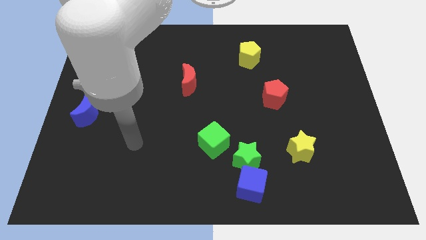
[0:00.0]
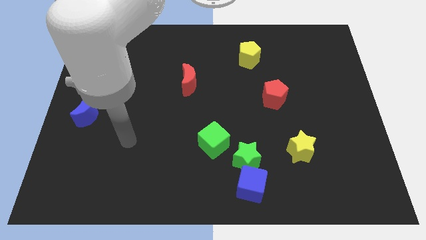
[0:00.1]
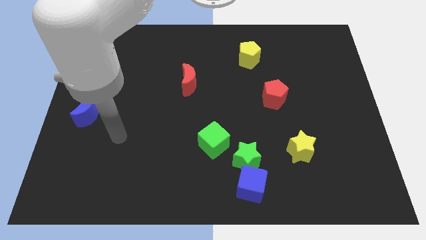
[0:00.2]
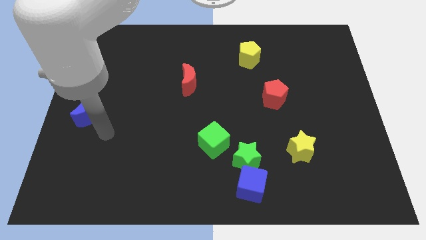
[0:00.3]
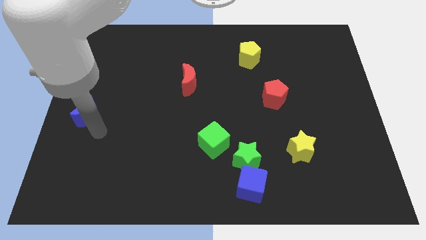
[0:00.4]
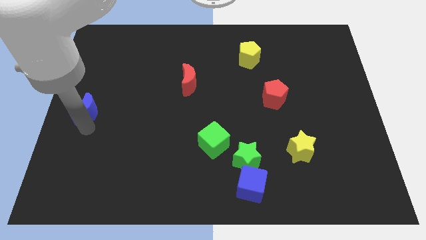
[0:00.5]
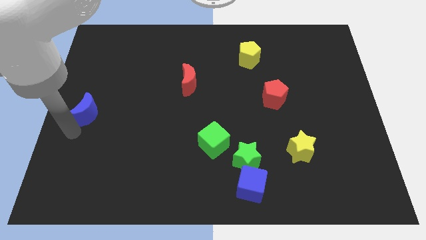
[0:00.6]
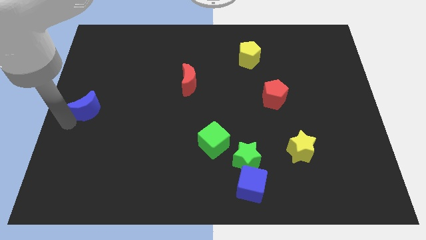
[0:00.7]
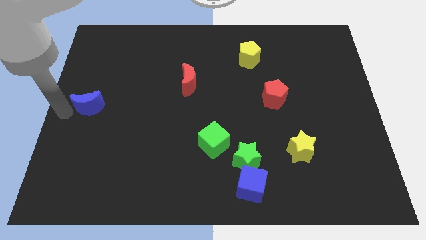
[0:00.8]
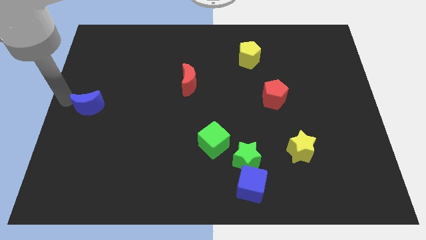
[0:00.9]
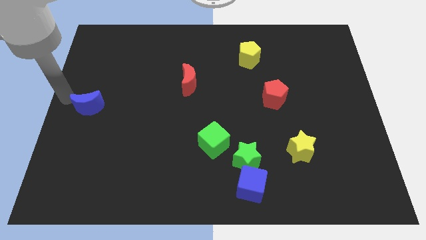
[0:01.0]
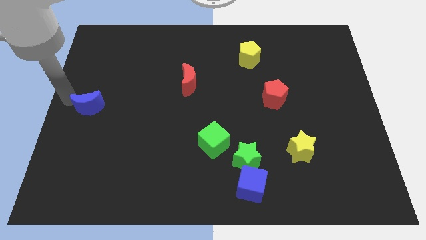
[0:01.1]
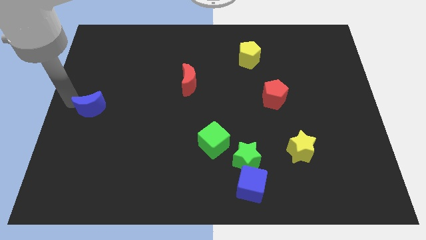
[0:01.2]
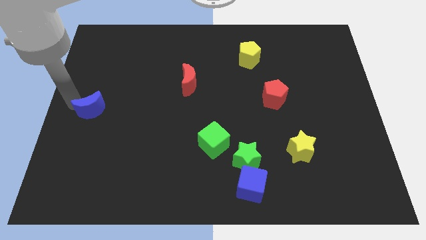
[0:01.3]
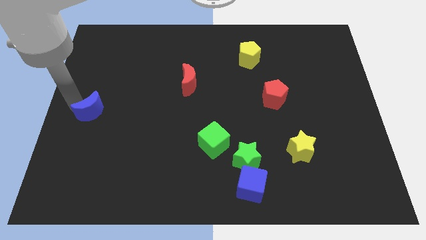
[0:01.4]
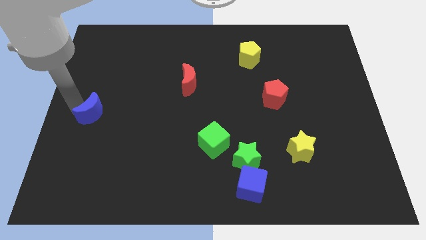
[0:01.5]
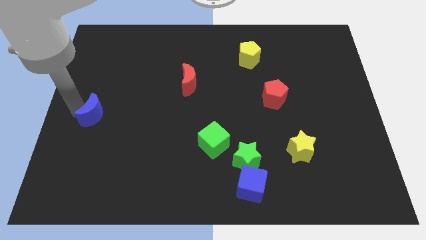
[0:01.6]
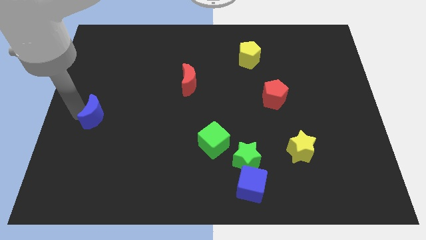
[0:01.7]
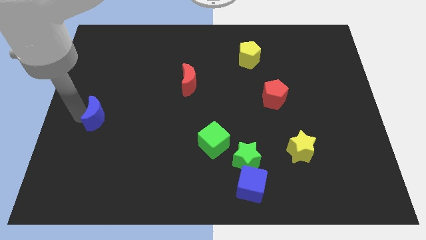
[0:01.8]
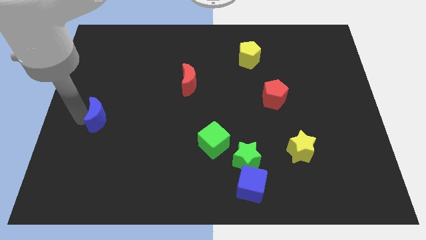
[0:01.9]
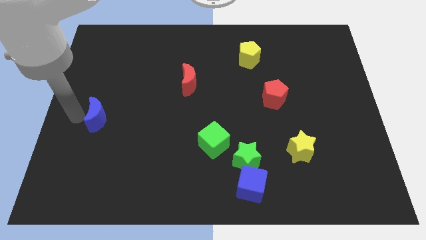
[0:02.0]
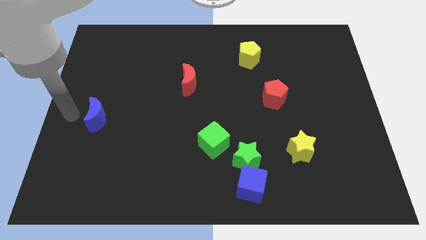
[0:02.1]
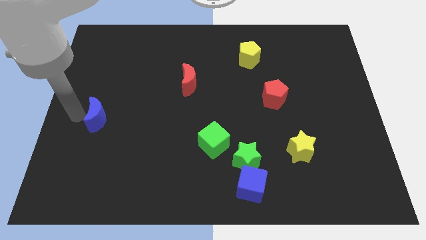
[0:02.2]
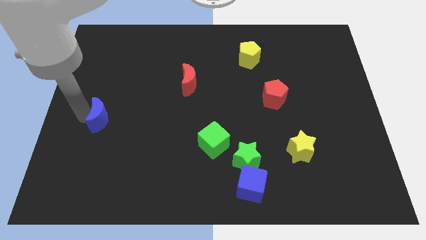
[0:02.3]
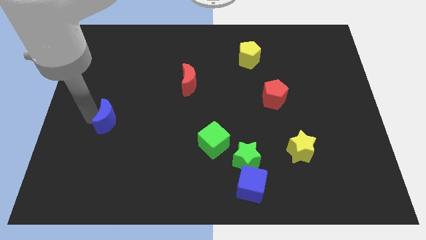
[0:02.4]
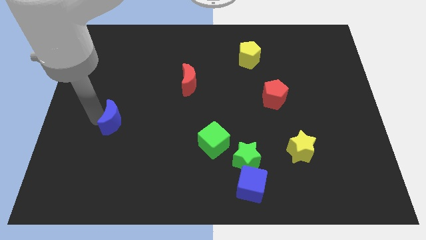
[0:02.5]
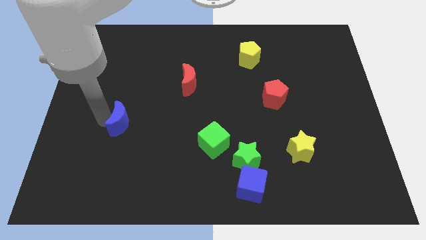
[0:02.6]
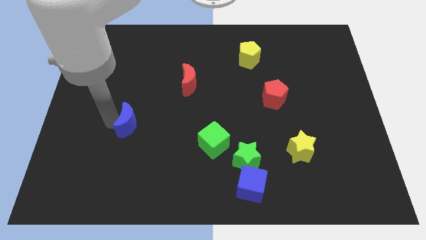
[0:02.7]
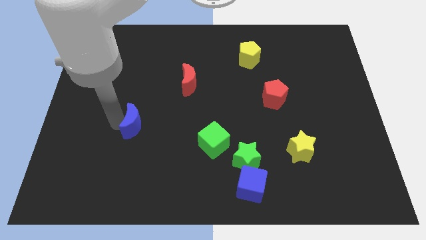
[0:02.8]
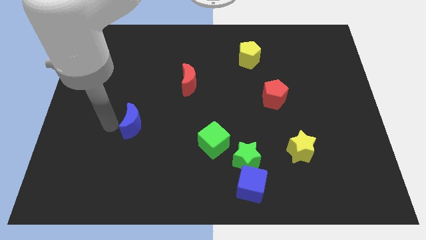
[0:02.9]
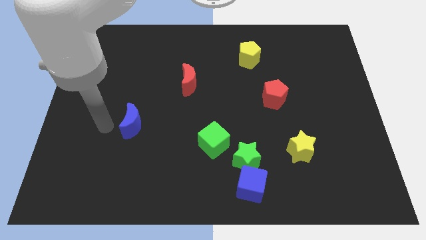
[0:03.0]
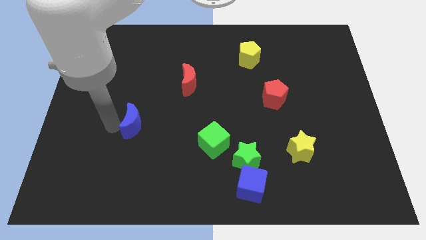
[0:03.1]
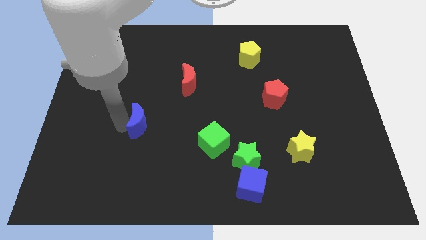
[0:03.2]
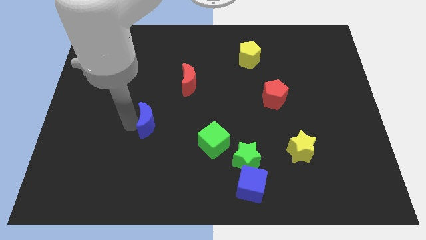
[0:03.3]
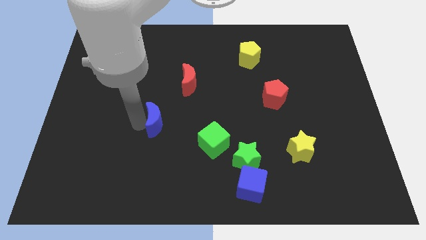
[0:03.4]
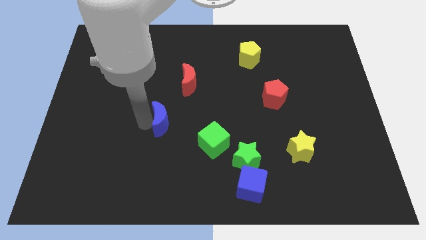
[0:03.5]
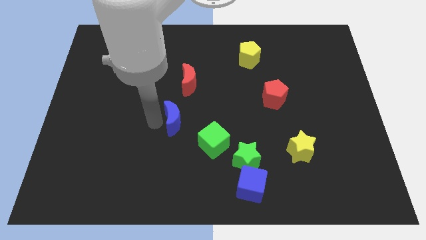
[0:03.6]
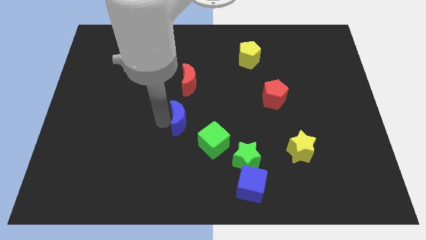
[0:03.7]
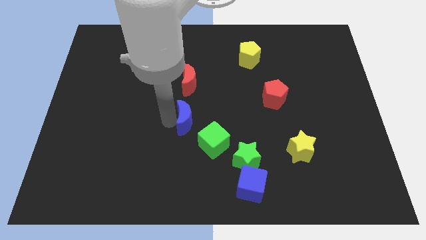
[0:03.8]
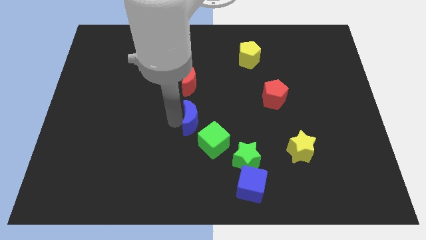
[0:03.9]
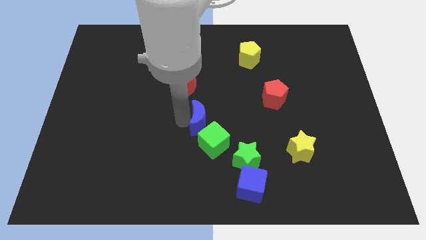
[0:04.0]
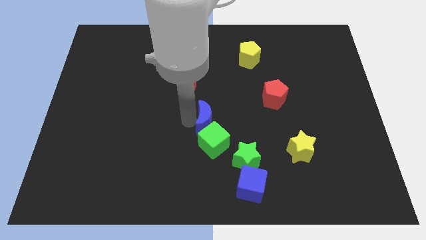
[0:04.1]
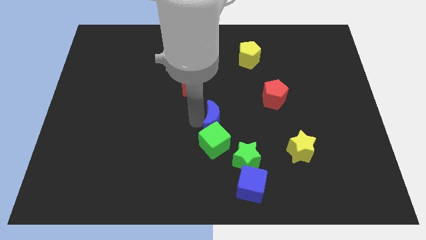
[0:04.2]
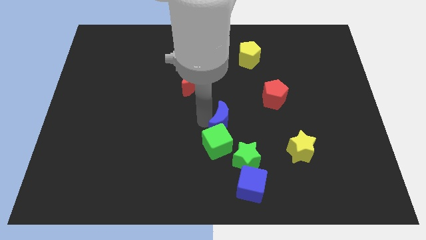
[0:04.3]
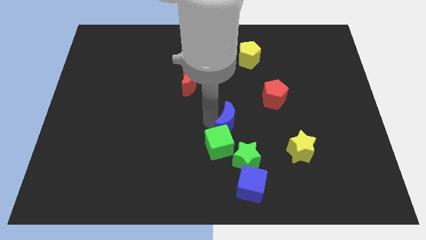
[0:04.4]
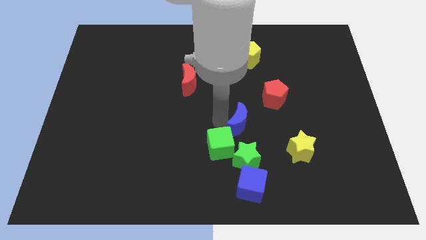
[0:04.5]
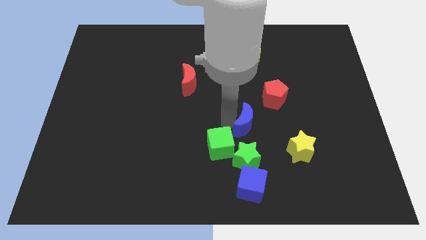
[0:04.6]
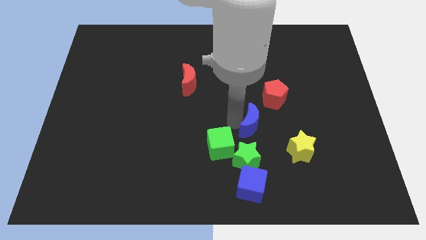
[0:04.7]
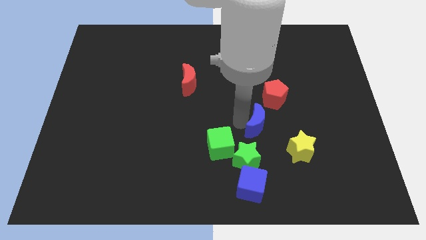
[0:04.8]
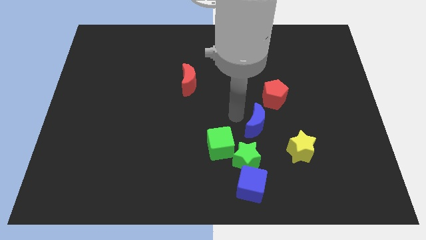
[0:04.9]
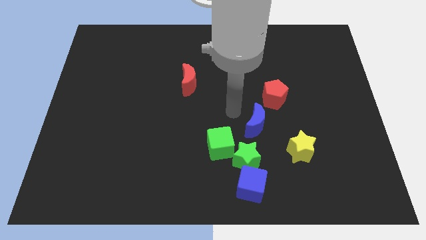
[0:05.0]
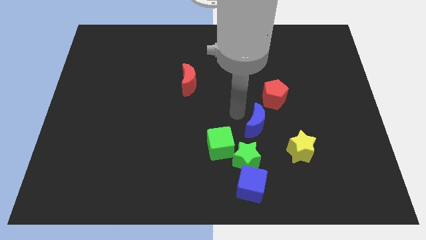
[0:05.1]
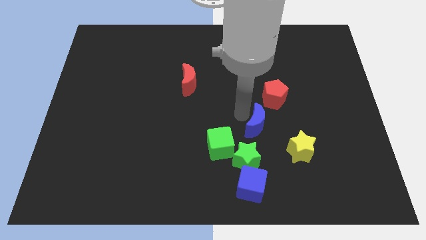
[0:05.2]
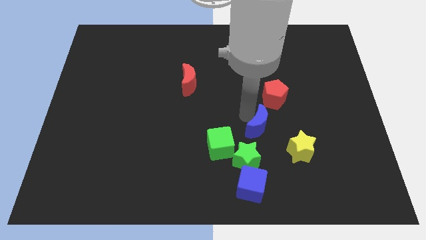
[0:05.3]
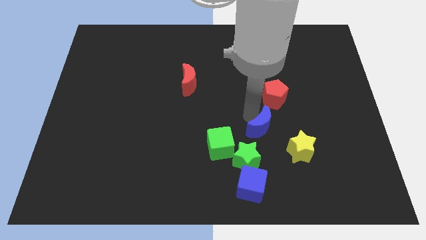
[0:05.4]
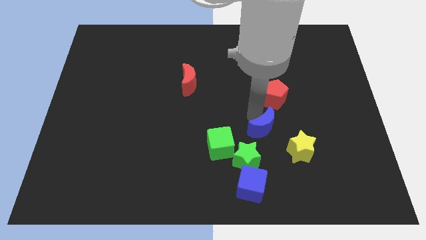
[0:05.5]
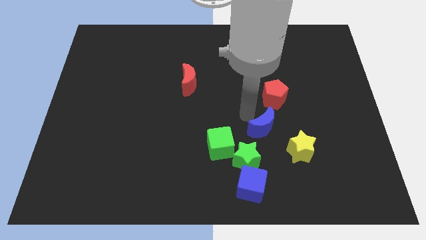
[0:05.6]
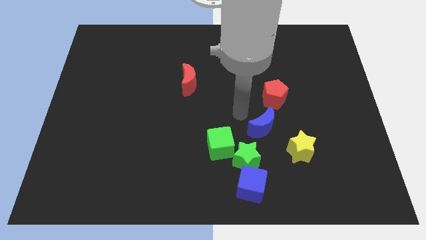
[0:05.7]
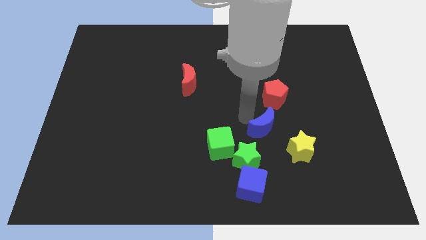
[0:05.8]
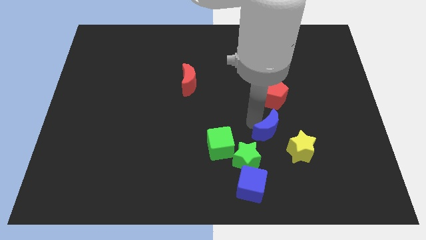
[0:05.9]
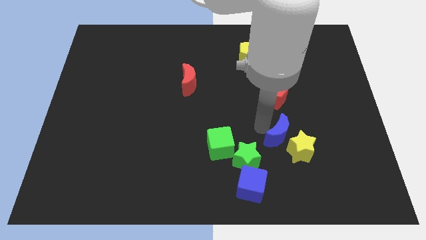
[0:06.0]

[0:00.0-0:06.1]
move the blue moon to the yellow star

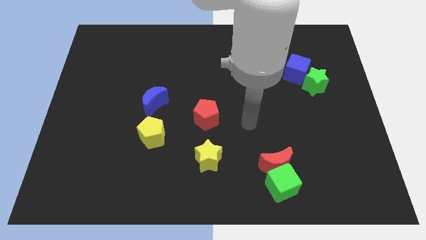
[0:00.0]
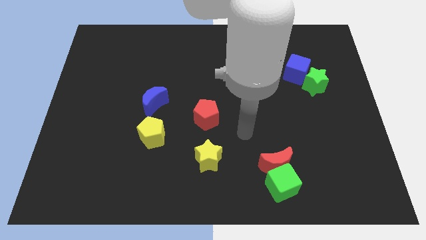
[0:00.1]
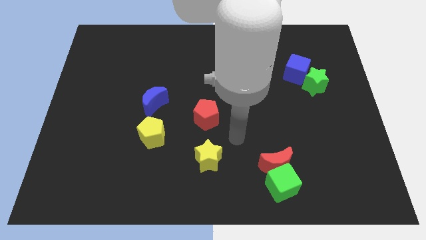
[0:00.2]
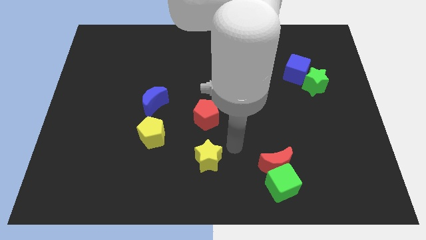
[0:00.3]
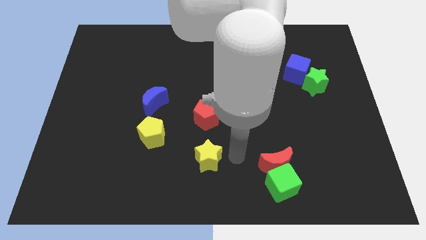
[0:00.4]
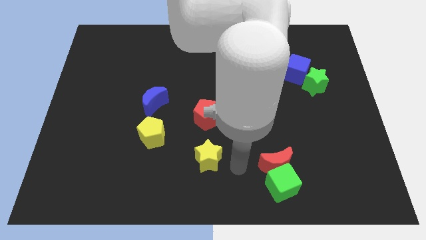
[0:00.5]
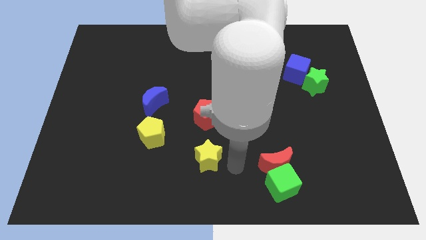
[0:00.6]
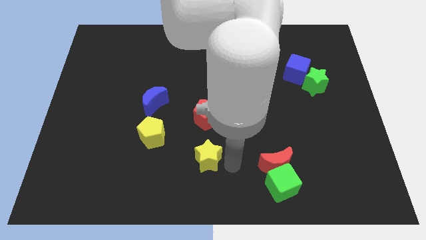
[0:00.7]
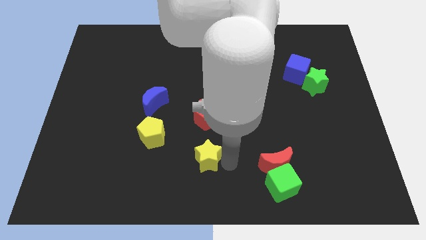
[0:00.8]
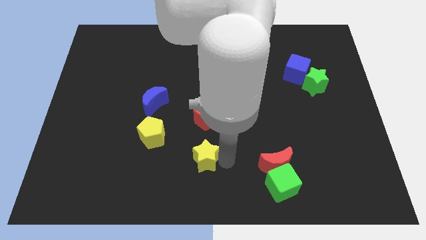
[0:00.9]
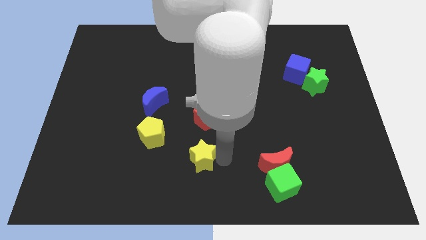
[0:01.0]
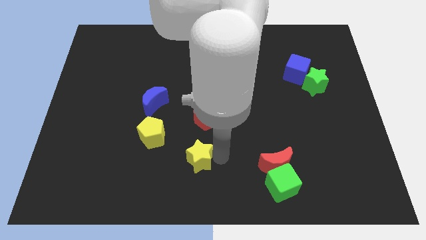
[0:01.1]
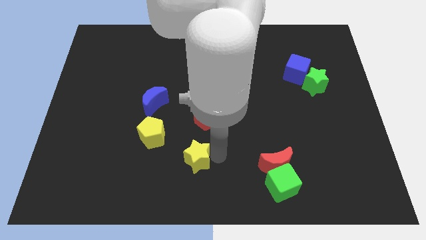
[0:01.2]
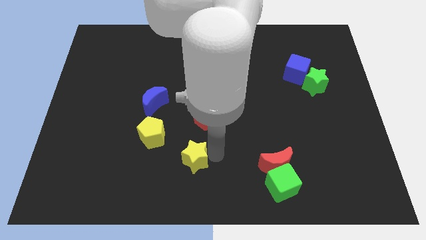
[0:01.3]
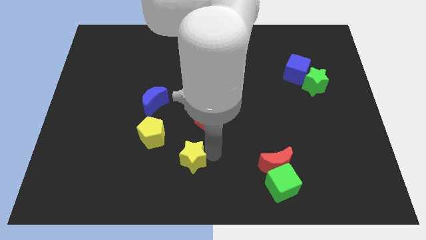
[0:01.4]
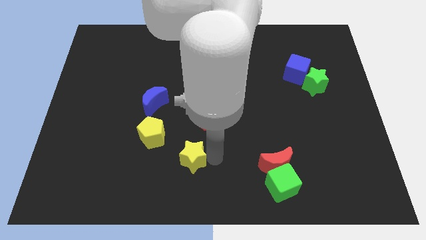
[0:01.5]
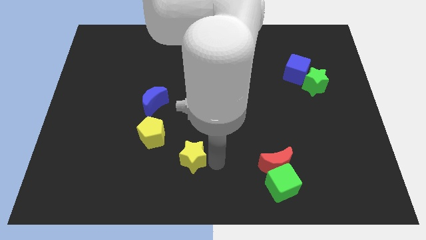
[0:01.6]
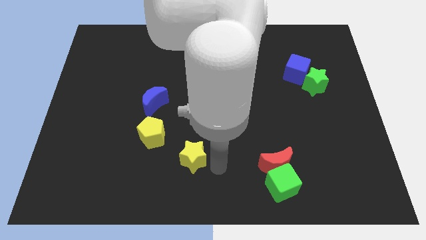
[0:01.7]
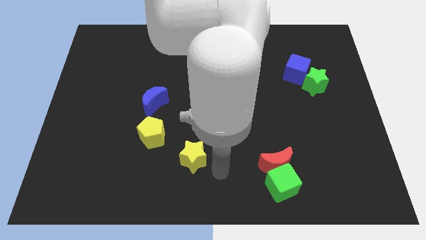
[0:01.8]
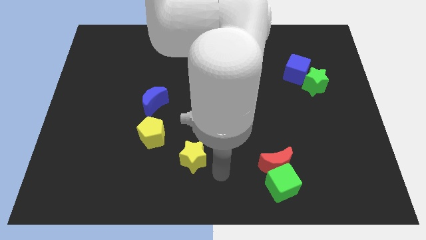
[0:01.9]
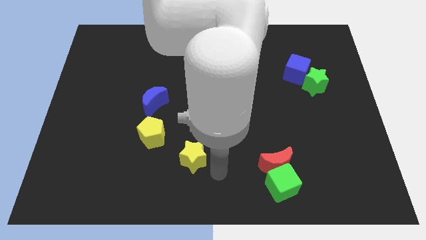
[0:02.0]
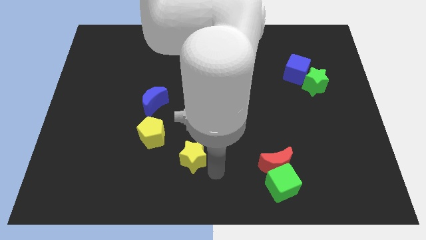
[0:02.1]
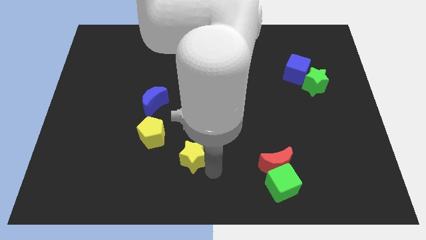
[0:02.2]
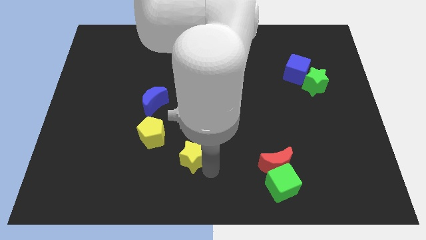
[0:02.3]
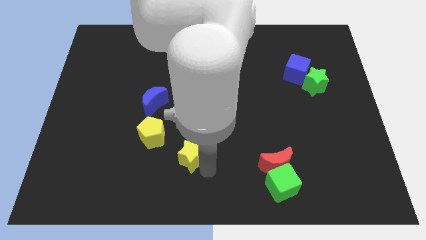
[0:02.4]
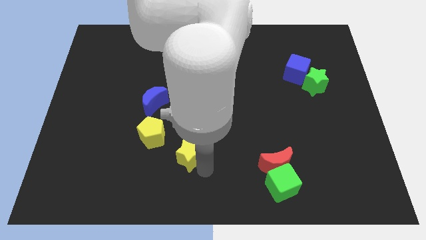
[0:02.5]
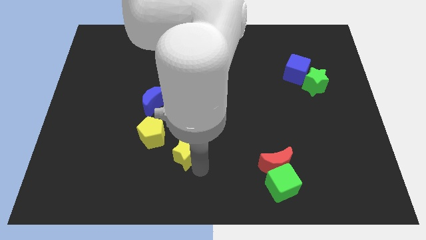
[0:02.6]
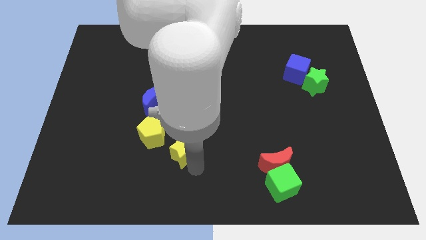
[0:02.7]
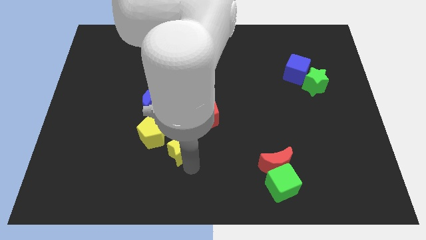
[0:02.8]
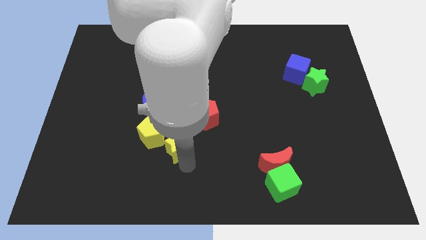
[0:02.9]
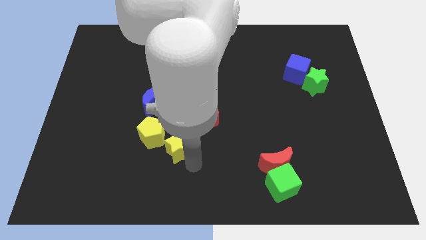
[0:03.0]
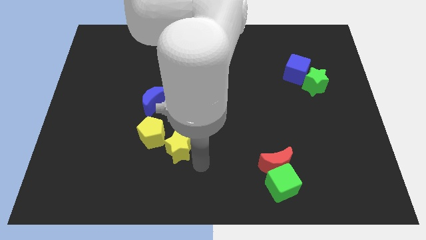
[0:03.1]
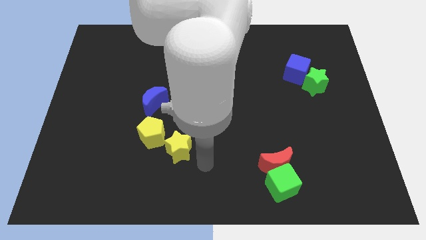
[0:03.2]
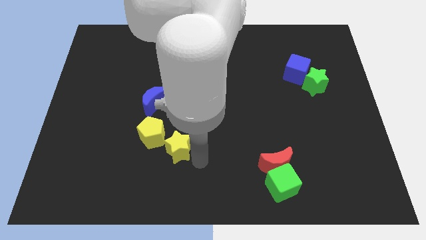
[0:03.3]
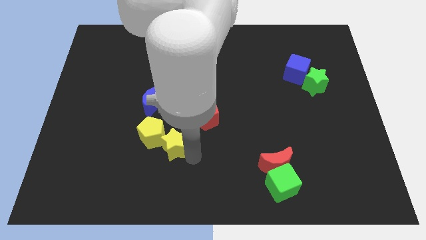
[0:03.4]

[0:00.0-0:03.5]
move the yellow star close to the yellow pentagon
